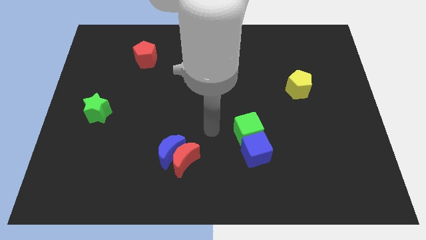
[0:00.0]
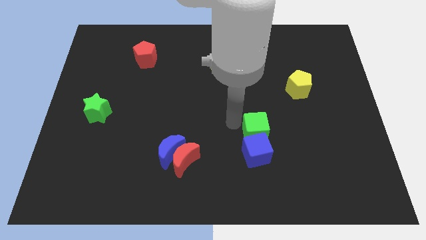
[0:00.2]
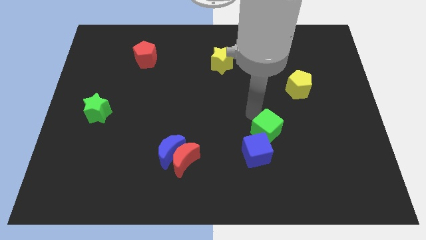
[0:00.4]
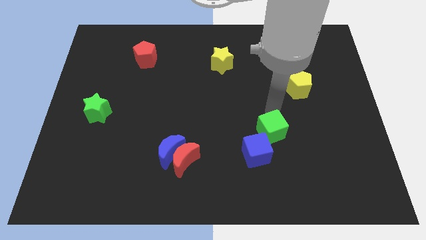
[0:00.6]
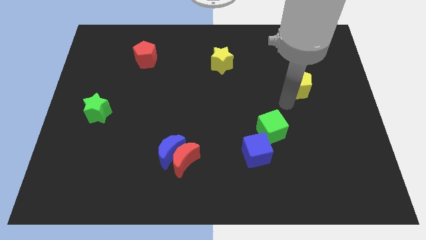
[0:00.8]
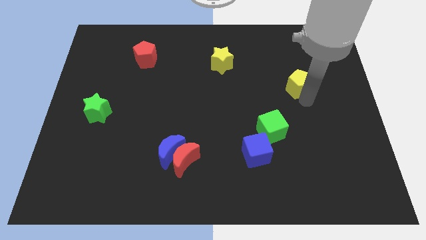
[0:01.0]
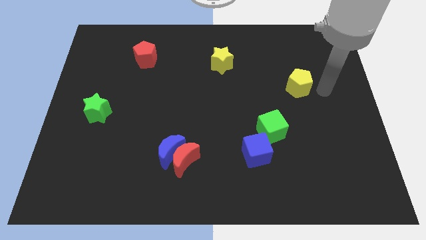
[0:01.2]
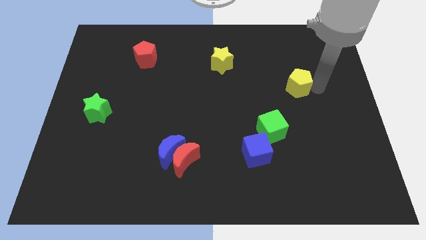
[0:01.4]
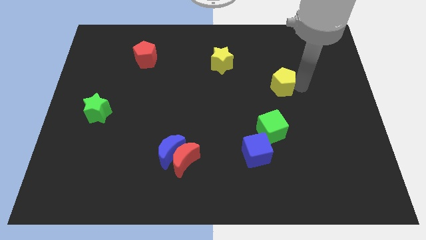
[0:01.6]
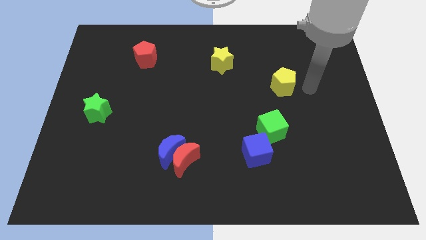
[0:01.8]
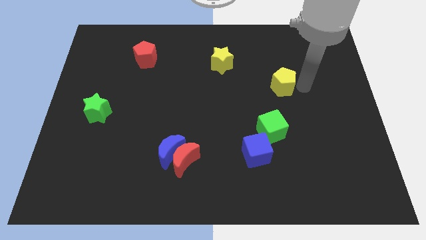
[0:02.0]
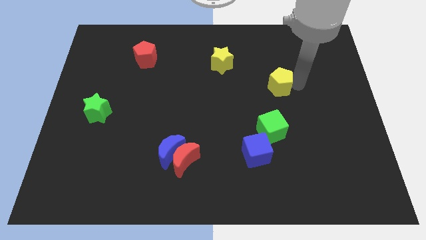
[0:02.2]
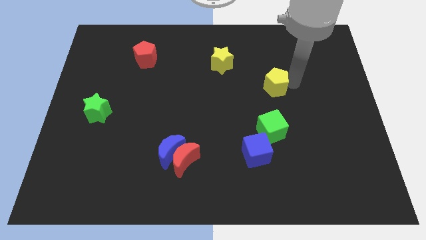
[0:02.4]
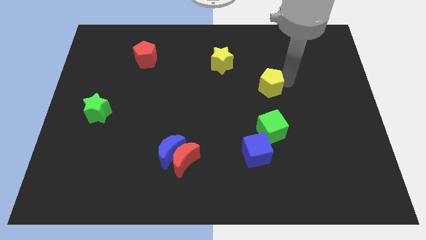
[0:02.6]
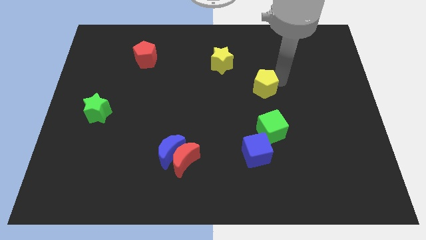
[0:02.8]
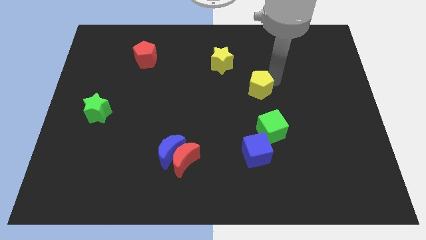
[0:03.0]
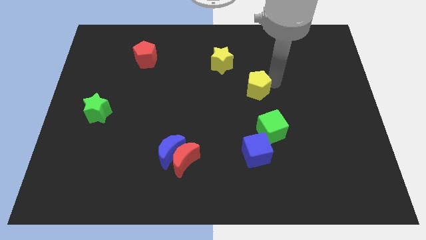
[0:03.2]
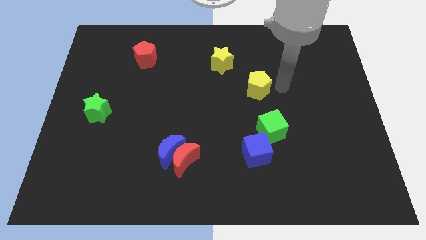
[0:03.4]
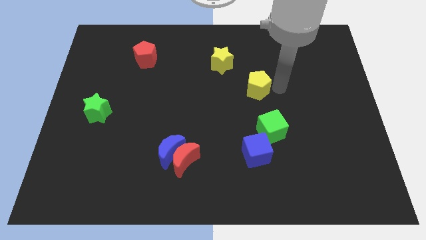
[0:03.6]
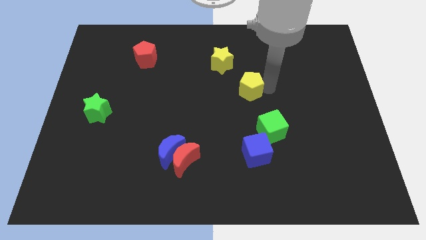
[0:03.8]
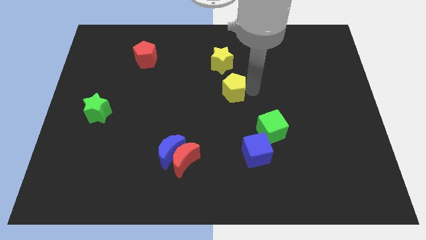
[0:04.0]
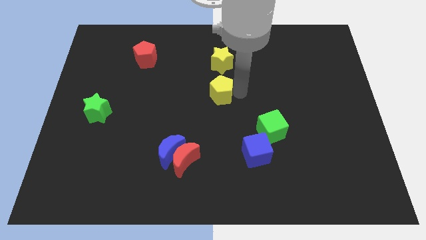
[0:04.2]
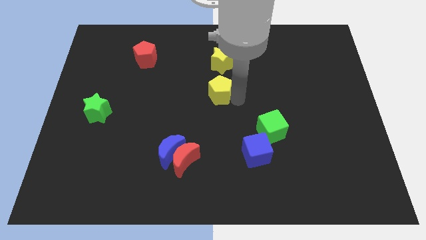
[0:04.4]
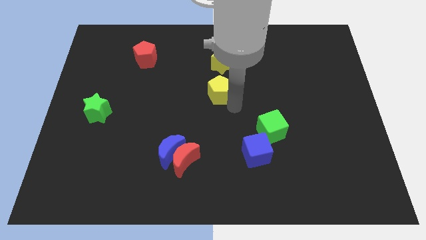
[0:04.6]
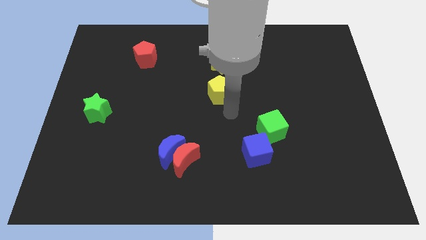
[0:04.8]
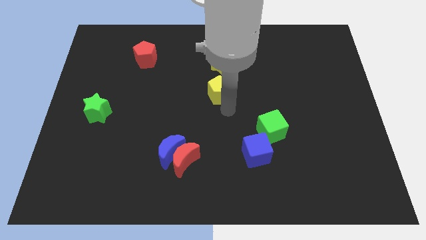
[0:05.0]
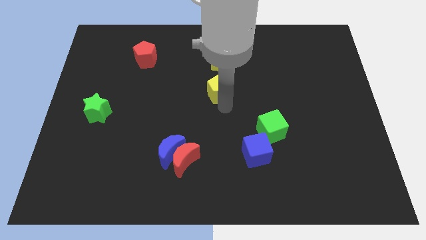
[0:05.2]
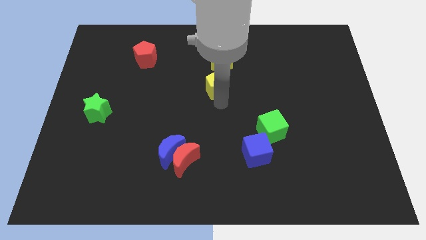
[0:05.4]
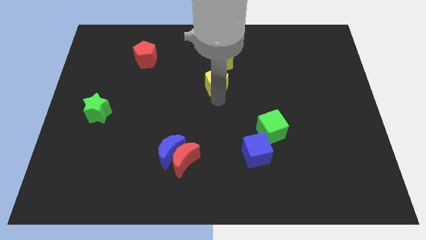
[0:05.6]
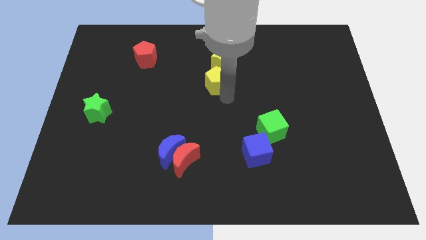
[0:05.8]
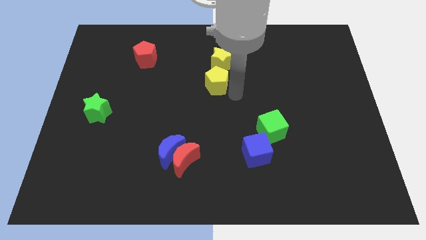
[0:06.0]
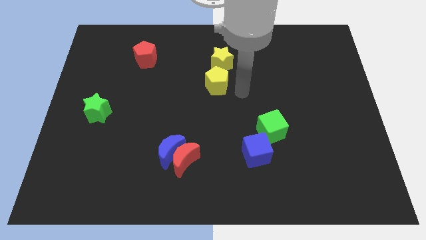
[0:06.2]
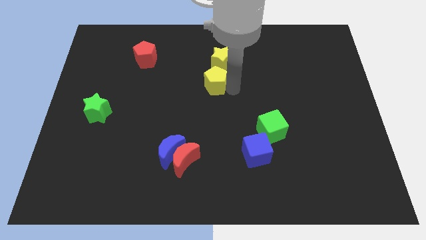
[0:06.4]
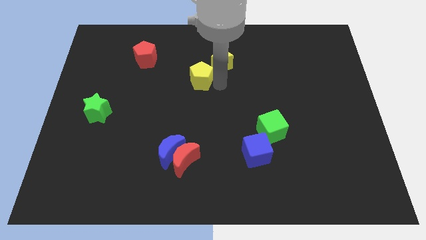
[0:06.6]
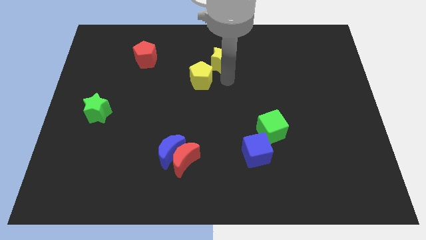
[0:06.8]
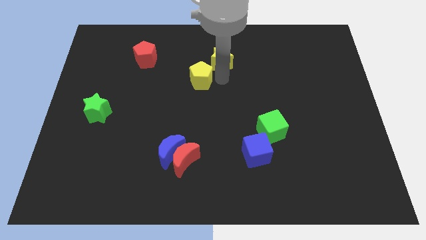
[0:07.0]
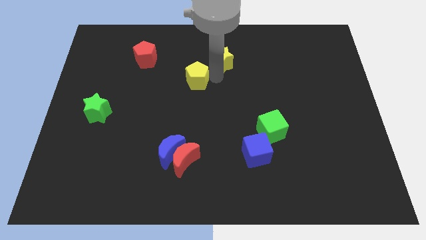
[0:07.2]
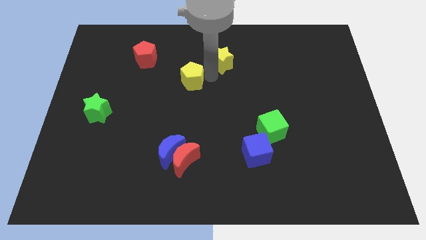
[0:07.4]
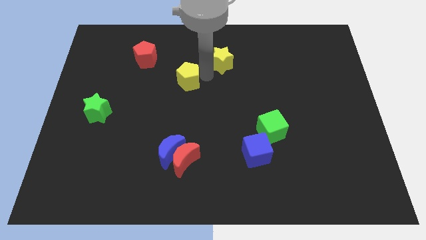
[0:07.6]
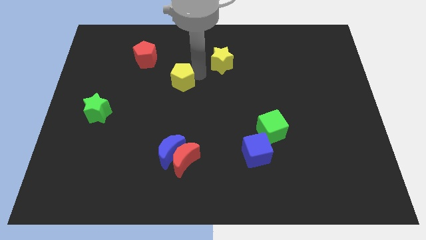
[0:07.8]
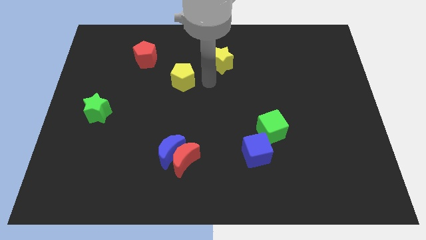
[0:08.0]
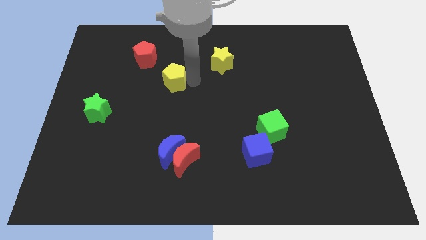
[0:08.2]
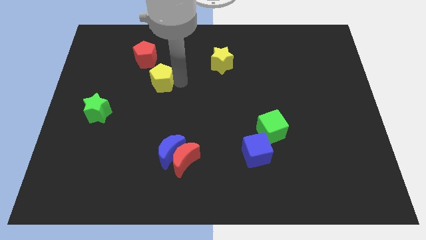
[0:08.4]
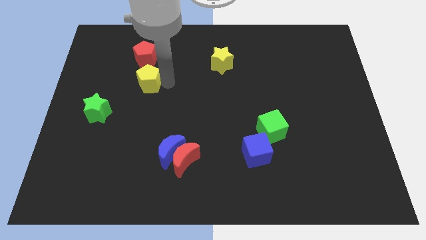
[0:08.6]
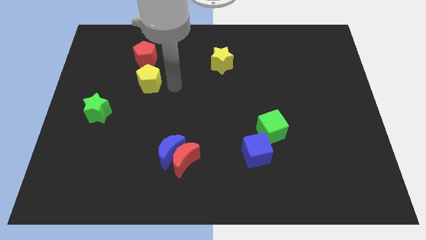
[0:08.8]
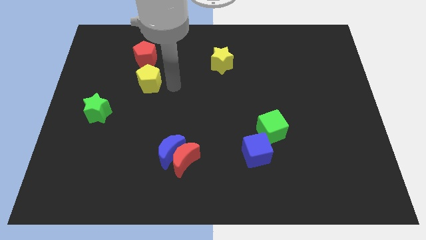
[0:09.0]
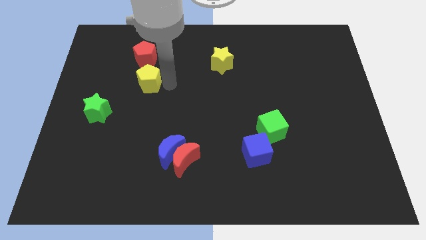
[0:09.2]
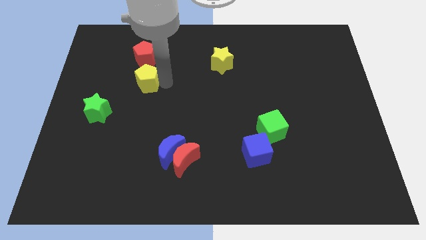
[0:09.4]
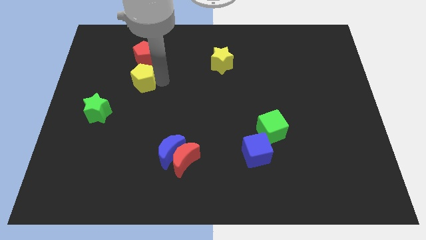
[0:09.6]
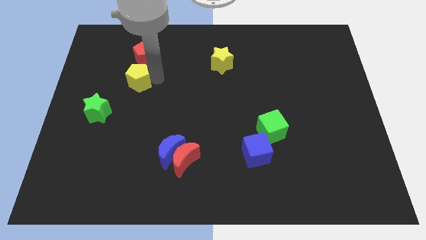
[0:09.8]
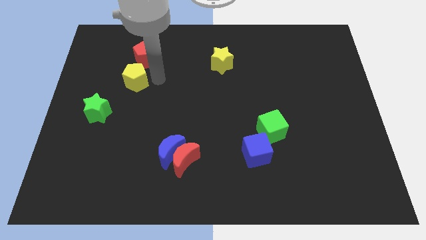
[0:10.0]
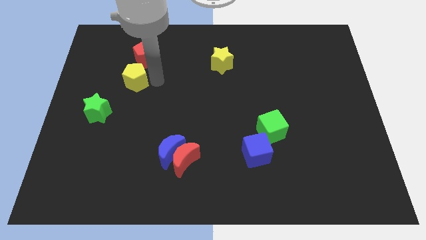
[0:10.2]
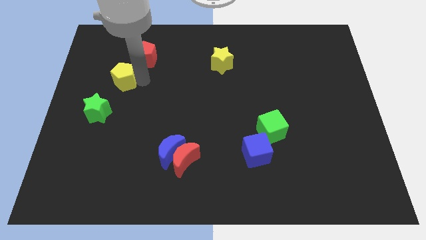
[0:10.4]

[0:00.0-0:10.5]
slide the yellow pentagon above the green star

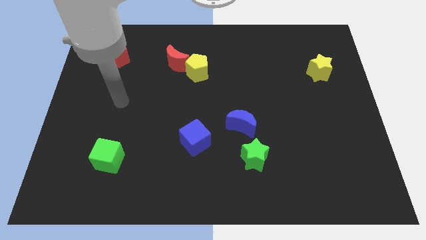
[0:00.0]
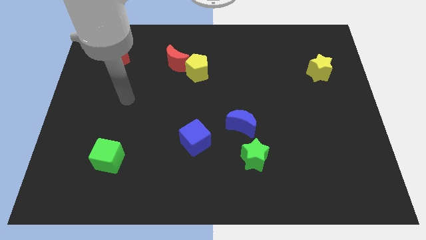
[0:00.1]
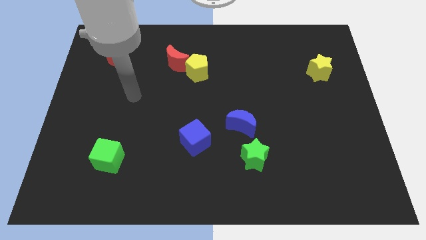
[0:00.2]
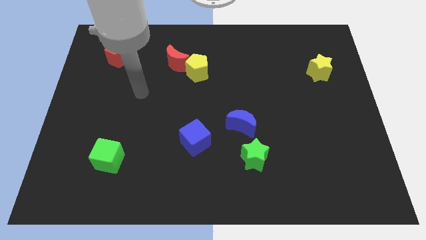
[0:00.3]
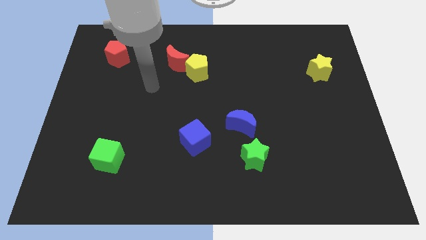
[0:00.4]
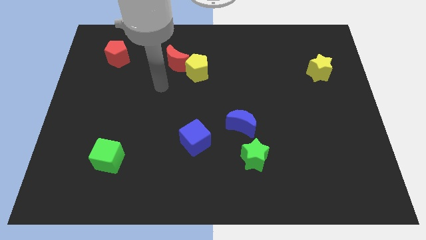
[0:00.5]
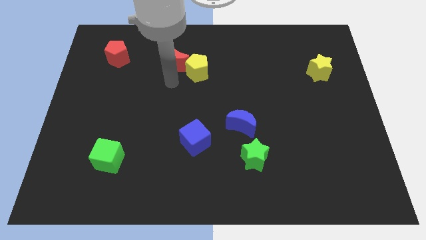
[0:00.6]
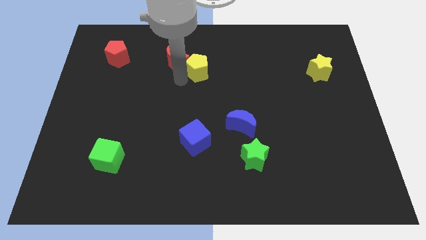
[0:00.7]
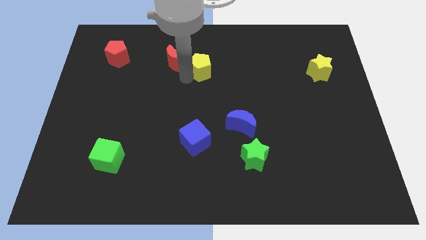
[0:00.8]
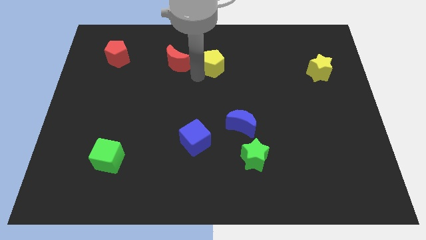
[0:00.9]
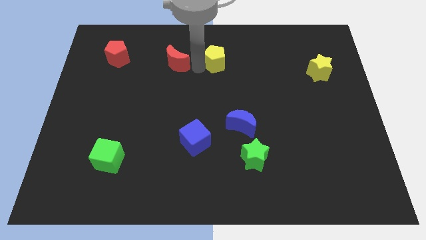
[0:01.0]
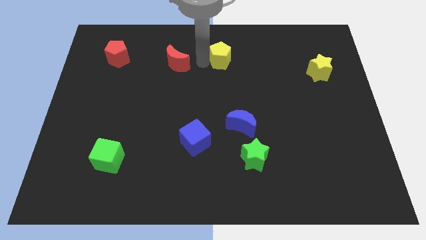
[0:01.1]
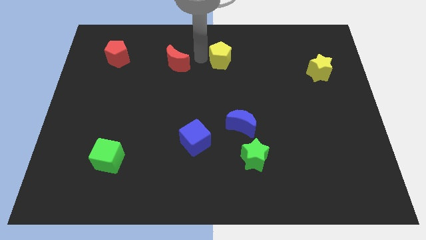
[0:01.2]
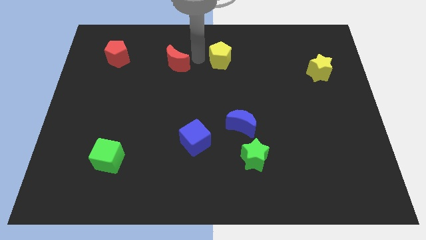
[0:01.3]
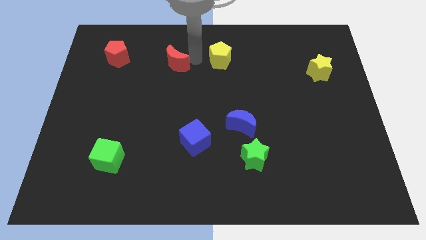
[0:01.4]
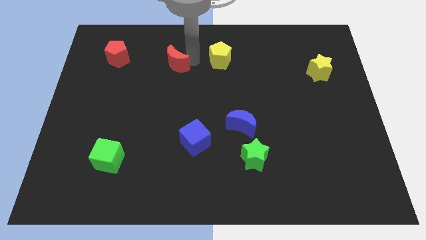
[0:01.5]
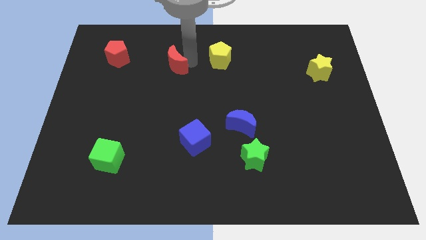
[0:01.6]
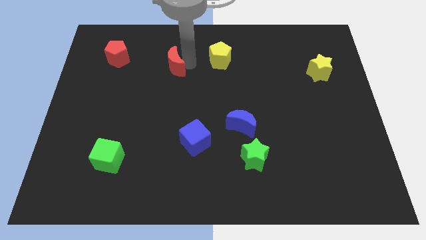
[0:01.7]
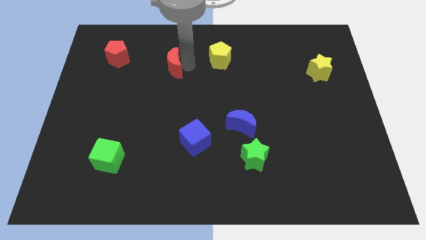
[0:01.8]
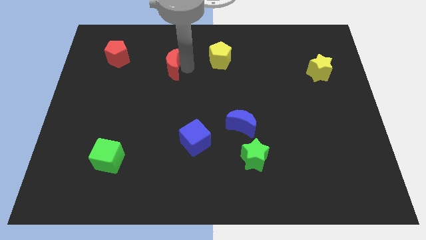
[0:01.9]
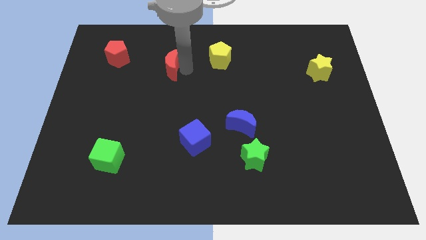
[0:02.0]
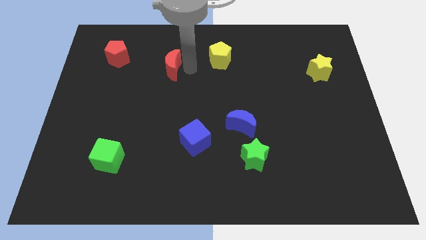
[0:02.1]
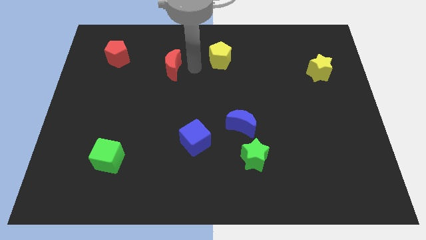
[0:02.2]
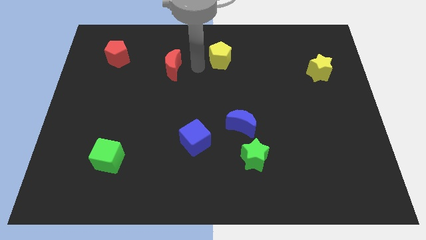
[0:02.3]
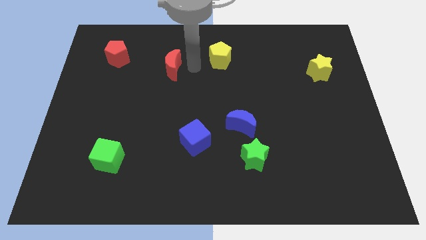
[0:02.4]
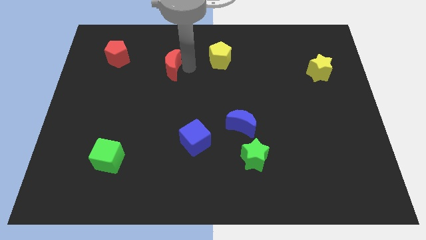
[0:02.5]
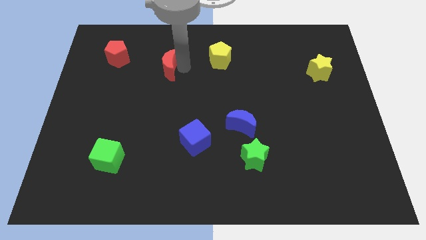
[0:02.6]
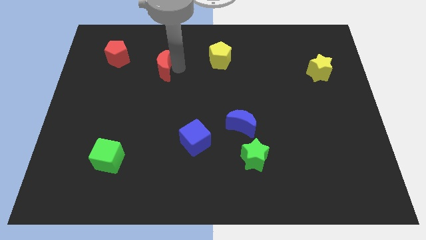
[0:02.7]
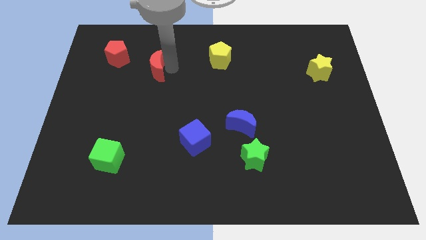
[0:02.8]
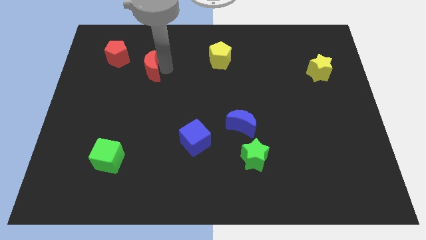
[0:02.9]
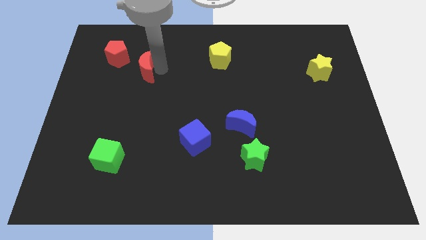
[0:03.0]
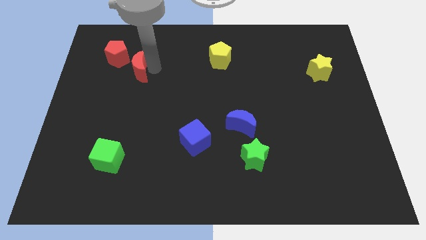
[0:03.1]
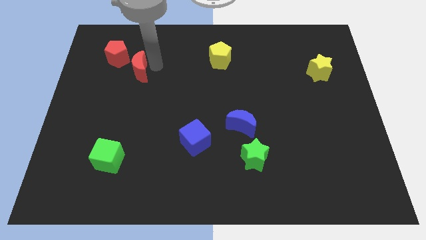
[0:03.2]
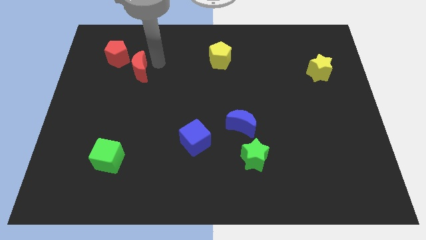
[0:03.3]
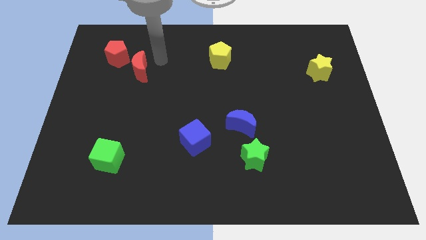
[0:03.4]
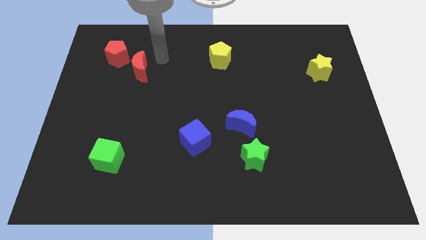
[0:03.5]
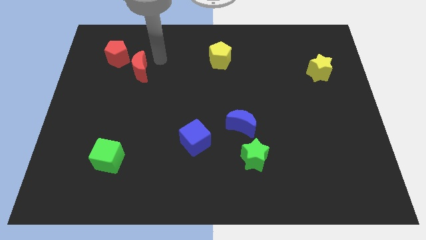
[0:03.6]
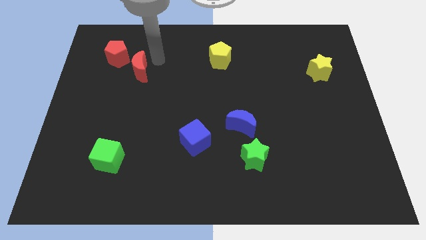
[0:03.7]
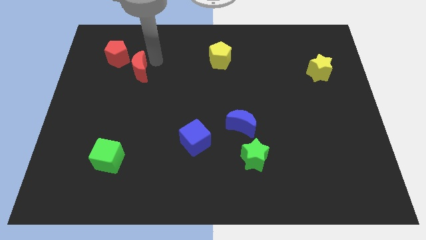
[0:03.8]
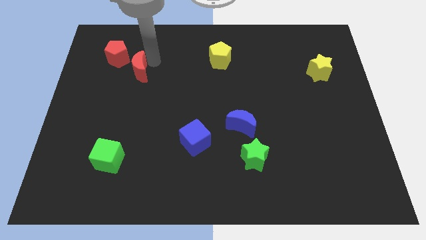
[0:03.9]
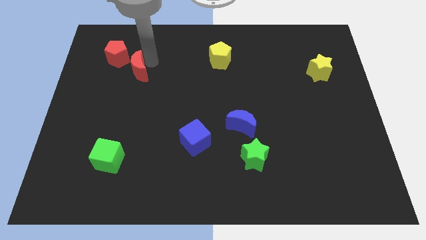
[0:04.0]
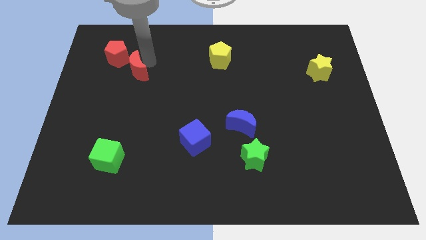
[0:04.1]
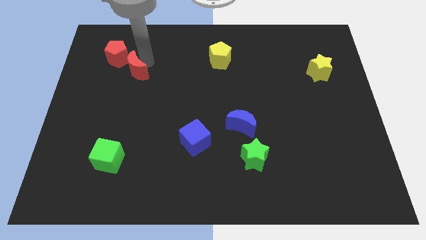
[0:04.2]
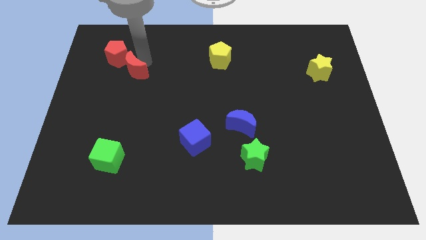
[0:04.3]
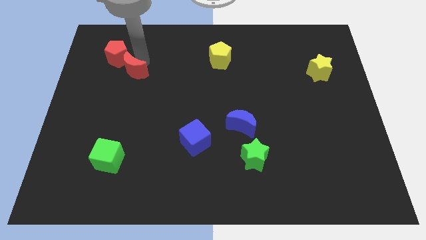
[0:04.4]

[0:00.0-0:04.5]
move the red moon to the bottom of the red pentagon
